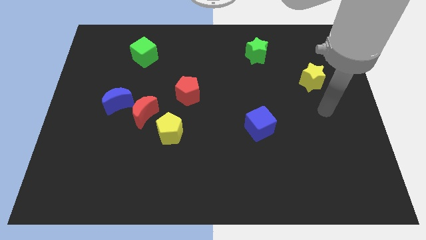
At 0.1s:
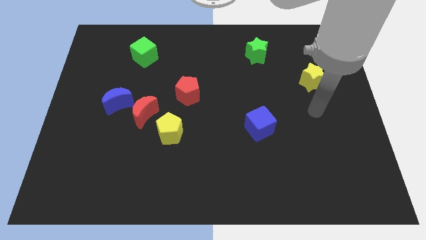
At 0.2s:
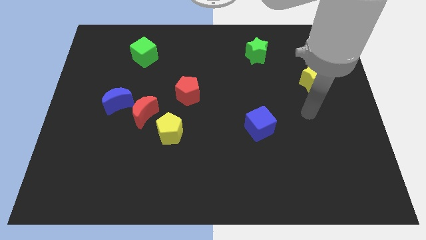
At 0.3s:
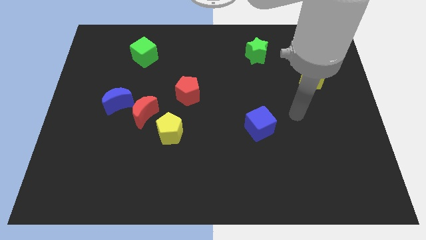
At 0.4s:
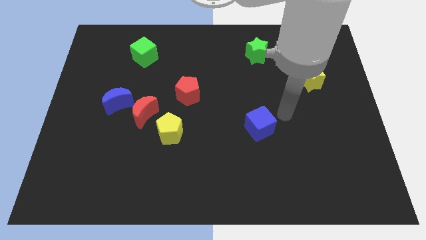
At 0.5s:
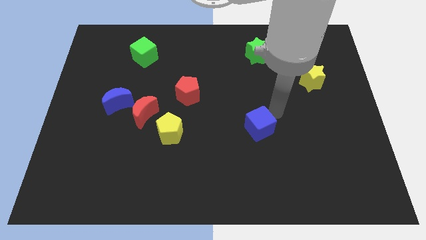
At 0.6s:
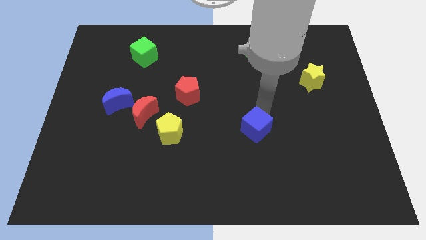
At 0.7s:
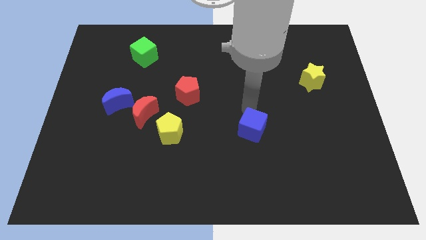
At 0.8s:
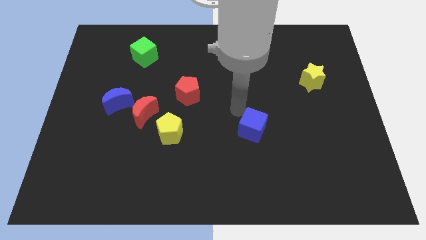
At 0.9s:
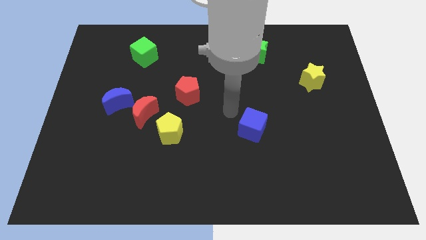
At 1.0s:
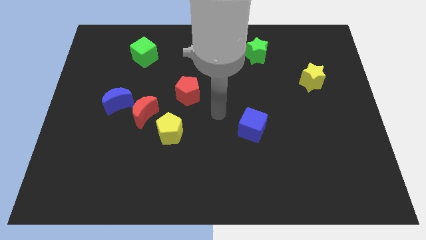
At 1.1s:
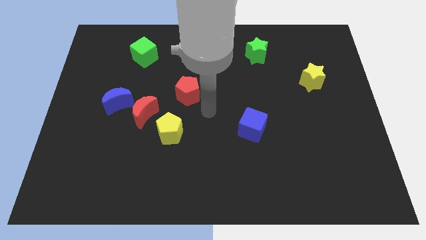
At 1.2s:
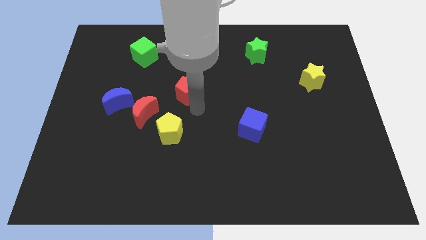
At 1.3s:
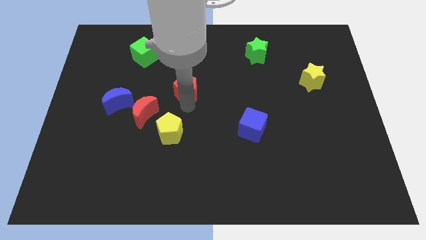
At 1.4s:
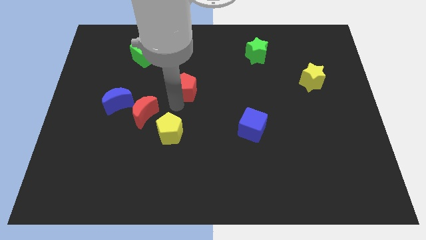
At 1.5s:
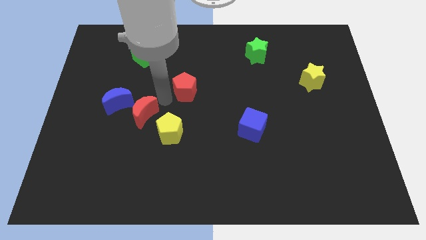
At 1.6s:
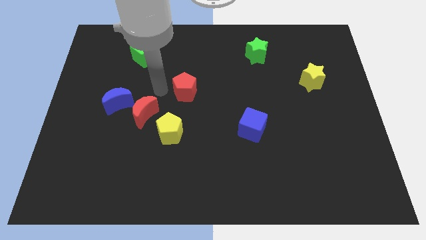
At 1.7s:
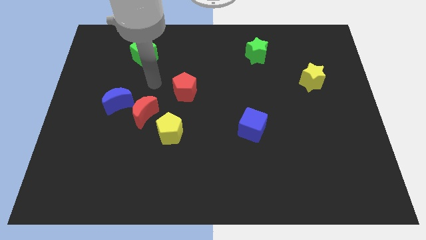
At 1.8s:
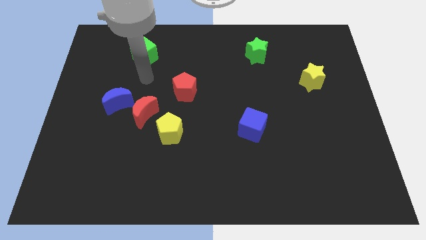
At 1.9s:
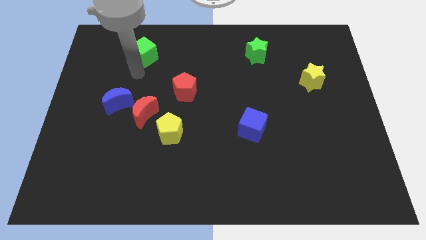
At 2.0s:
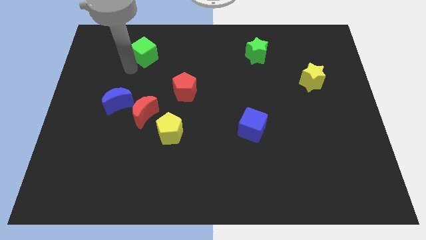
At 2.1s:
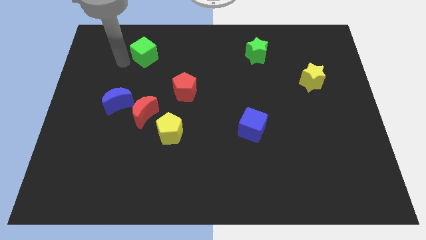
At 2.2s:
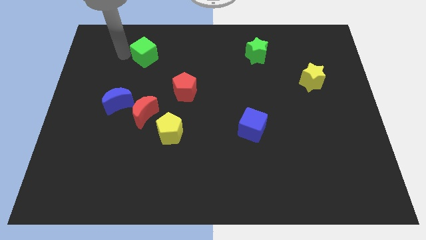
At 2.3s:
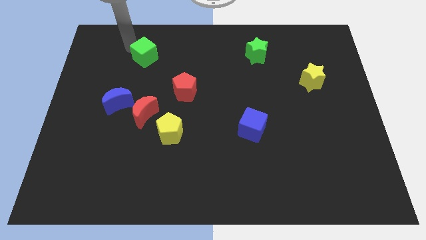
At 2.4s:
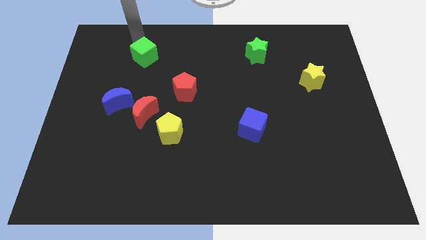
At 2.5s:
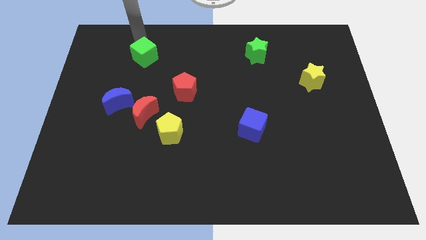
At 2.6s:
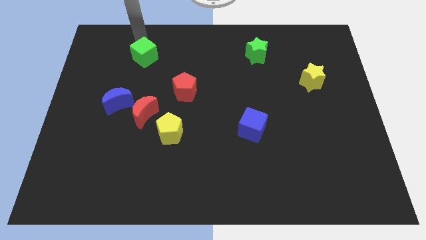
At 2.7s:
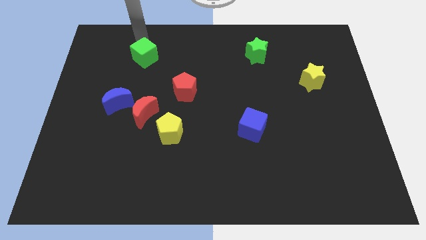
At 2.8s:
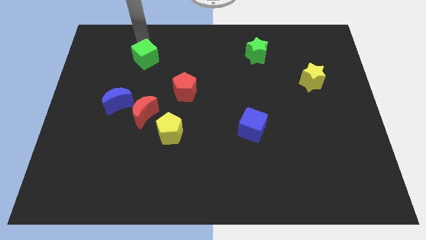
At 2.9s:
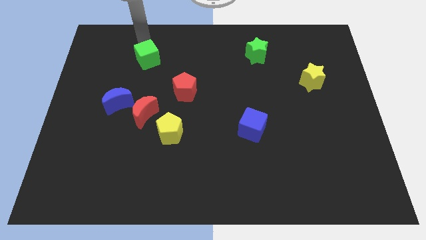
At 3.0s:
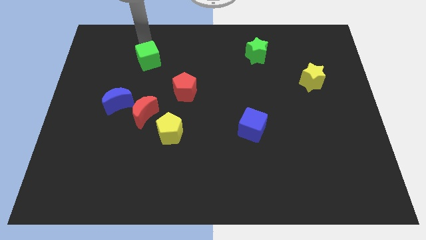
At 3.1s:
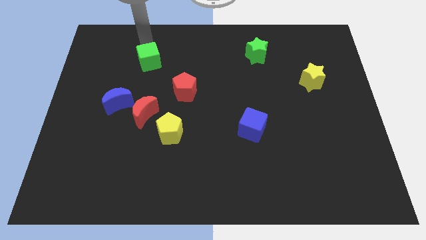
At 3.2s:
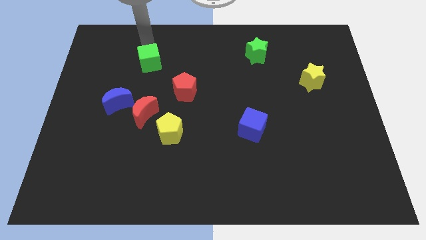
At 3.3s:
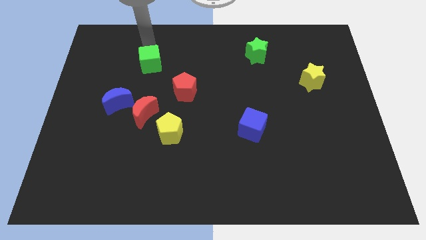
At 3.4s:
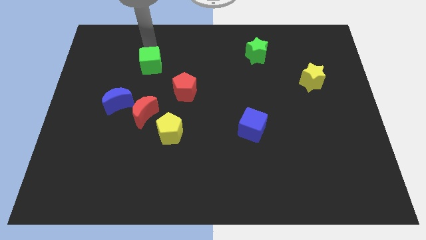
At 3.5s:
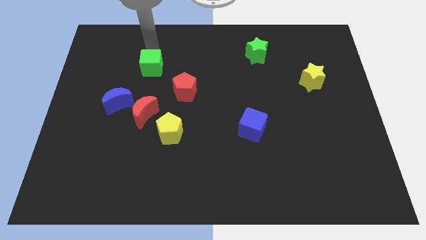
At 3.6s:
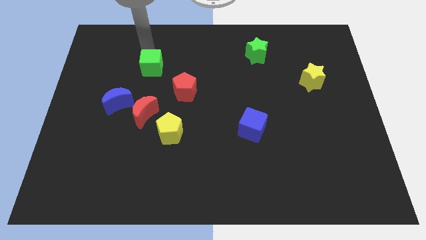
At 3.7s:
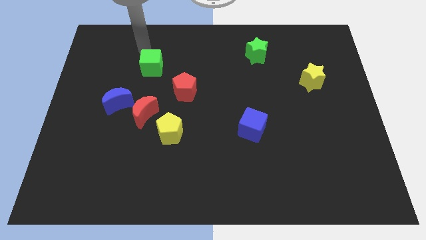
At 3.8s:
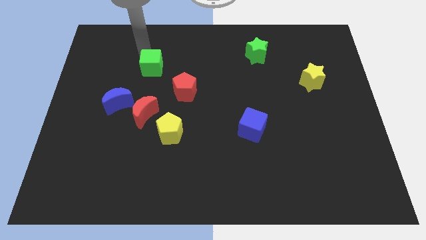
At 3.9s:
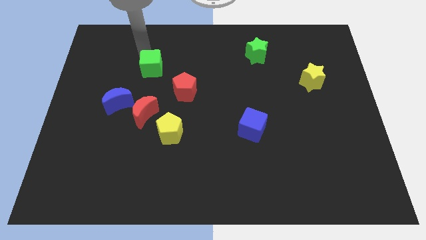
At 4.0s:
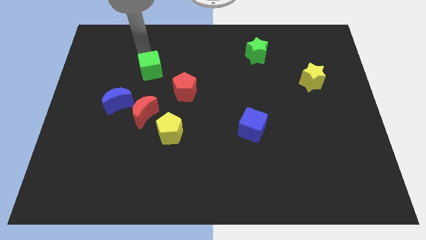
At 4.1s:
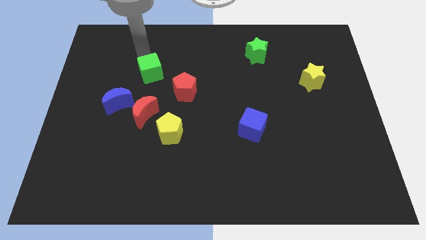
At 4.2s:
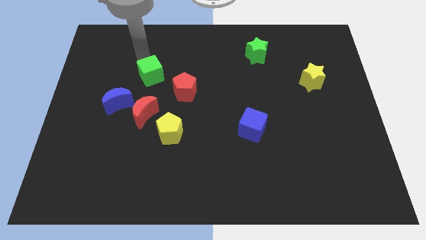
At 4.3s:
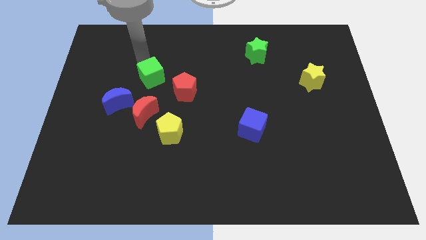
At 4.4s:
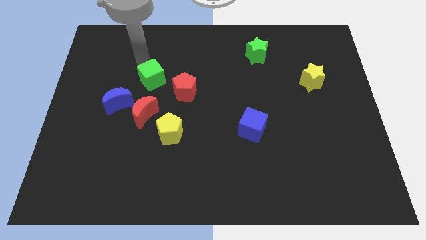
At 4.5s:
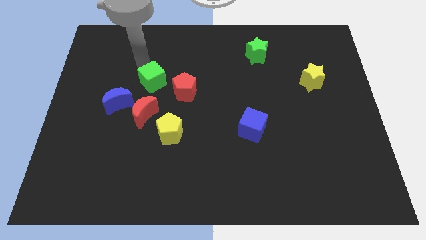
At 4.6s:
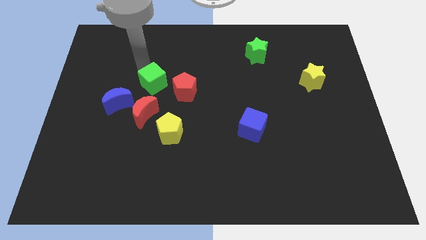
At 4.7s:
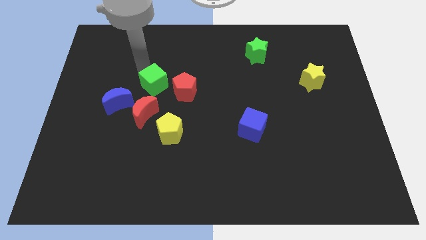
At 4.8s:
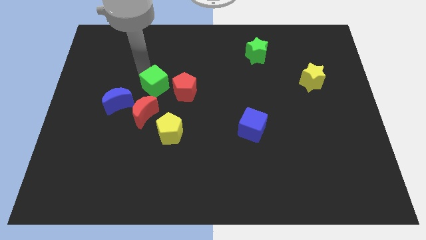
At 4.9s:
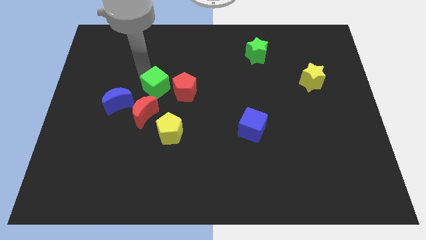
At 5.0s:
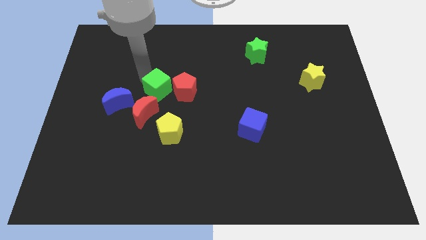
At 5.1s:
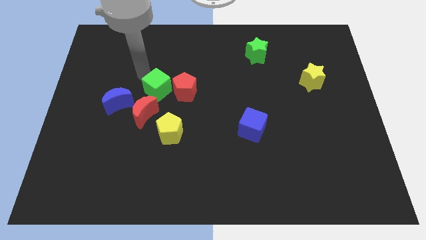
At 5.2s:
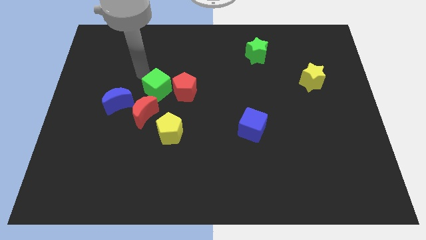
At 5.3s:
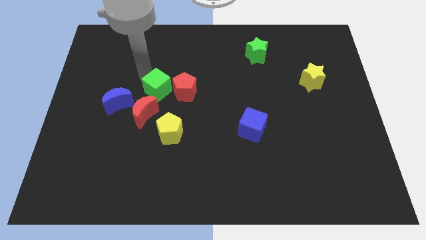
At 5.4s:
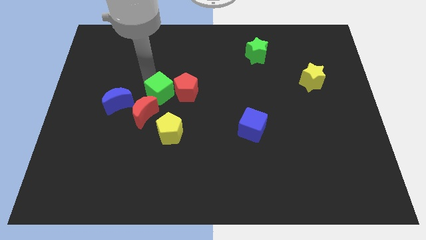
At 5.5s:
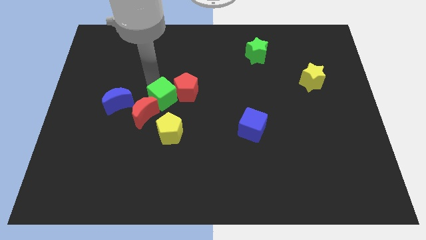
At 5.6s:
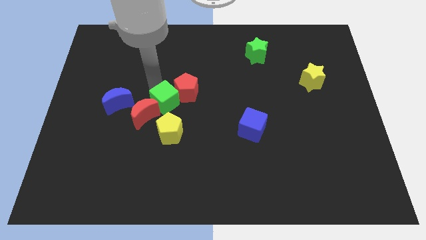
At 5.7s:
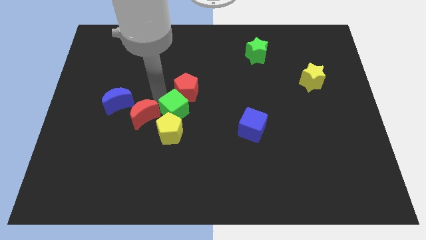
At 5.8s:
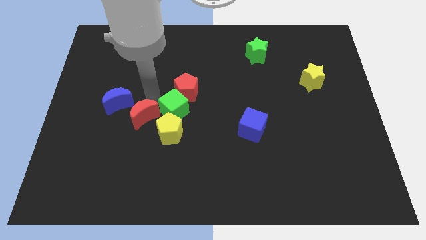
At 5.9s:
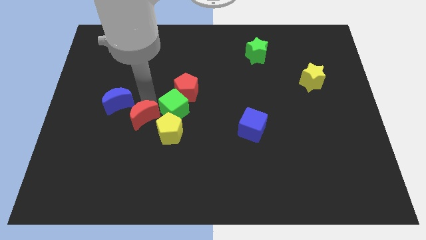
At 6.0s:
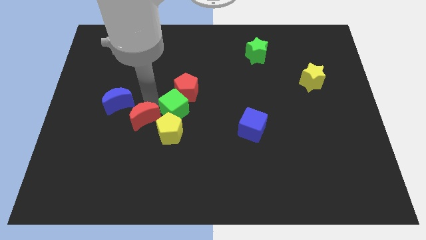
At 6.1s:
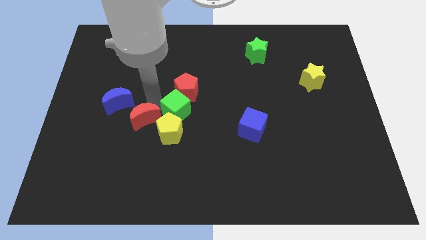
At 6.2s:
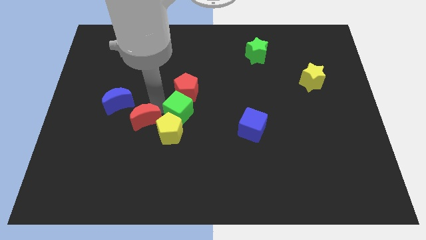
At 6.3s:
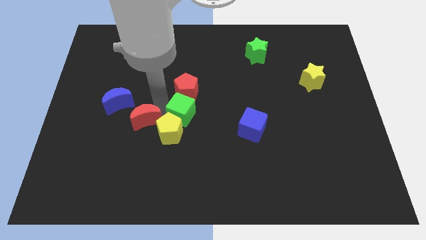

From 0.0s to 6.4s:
push the green cube downwards and to the right

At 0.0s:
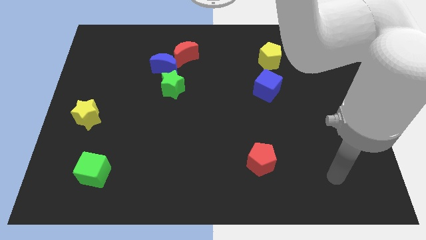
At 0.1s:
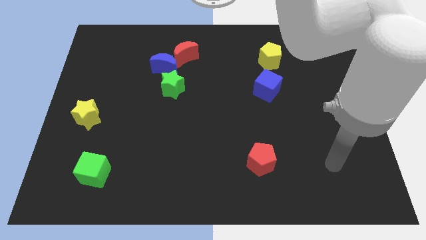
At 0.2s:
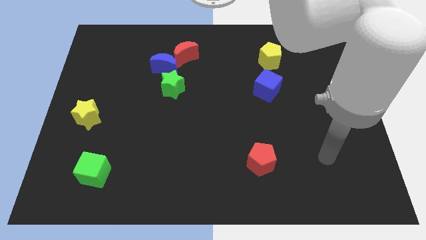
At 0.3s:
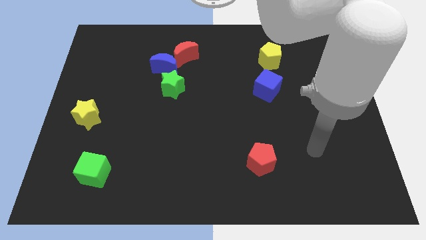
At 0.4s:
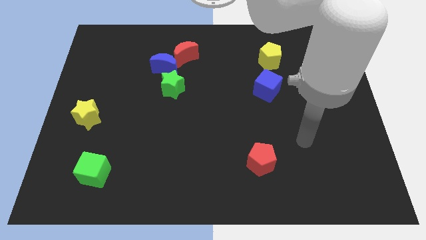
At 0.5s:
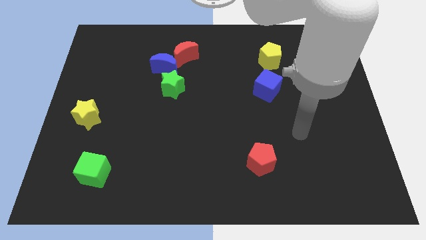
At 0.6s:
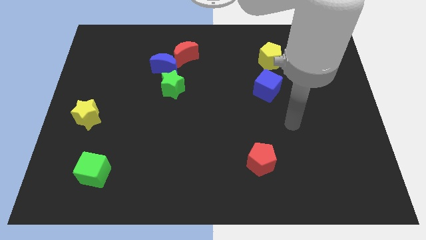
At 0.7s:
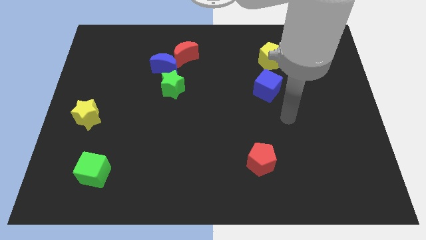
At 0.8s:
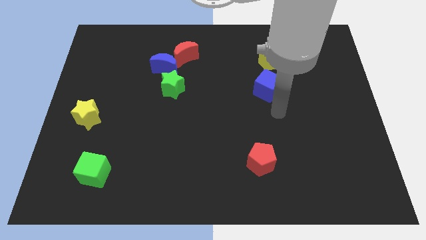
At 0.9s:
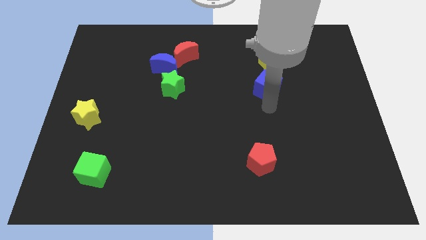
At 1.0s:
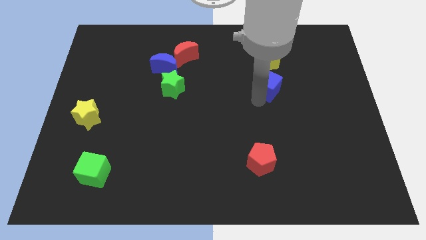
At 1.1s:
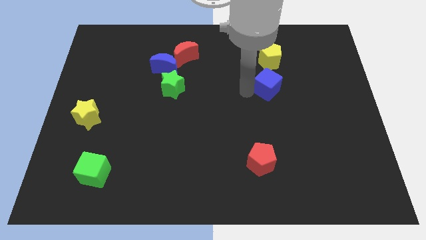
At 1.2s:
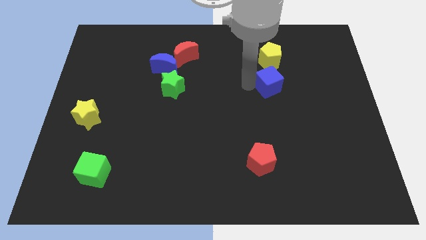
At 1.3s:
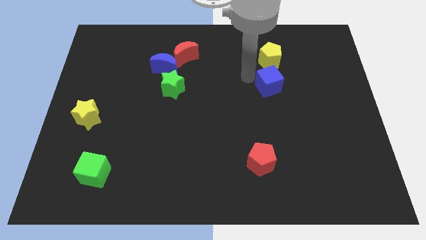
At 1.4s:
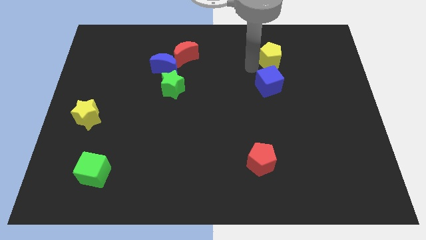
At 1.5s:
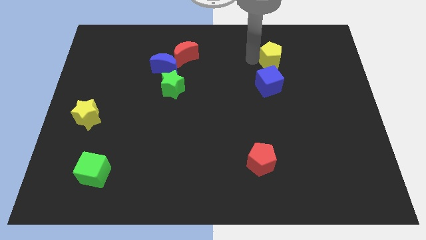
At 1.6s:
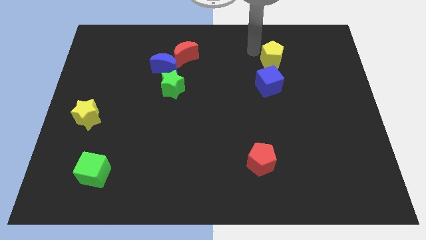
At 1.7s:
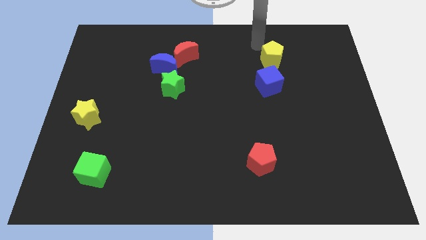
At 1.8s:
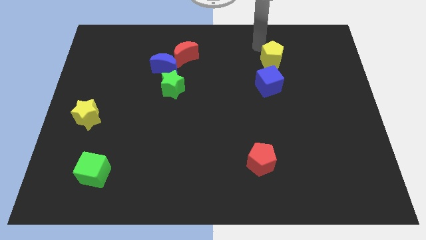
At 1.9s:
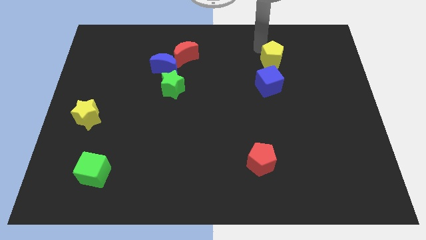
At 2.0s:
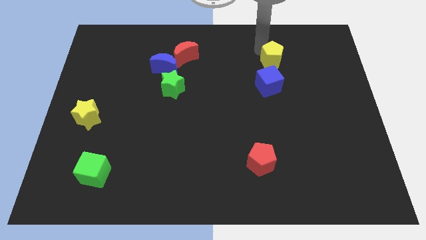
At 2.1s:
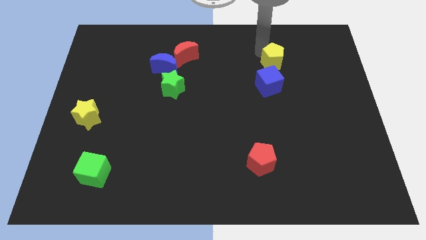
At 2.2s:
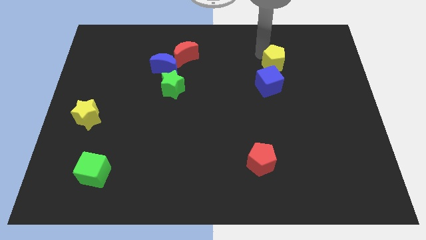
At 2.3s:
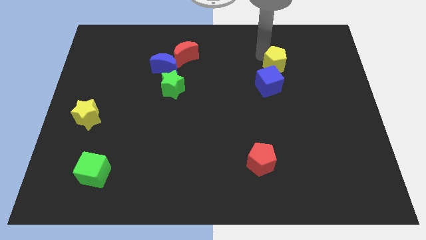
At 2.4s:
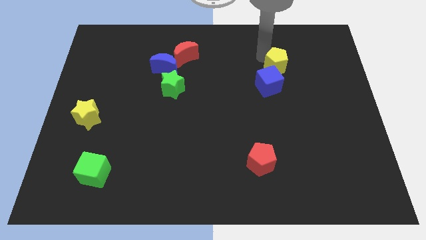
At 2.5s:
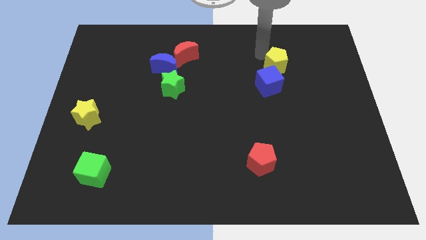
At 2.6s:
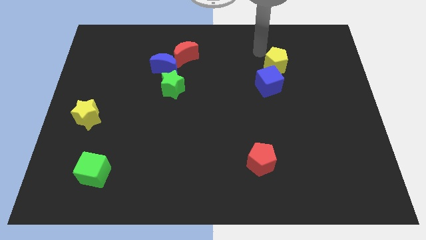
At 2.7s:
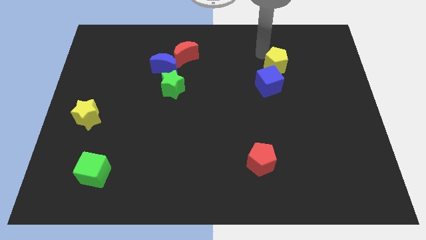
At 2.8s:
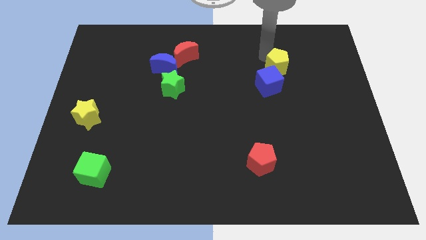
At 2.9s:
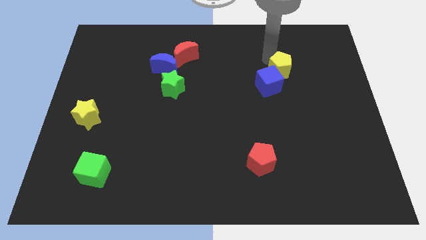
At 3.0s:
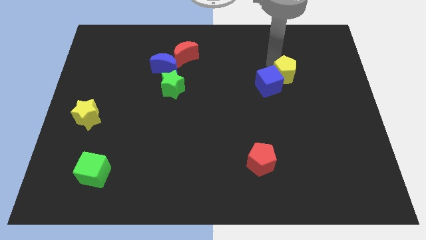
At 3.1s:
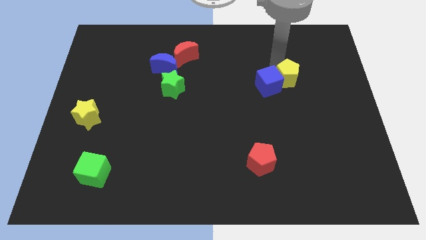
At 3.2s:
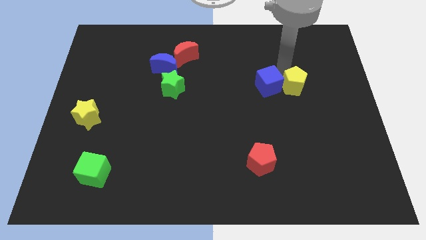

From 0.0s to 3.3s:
slightly move the yellow pentagon downwards
